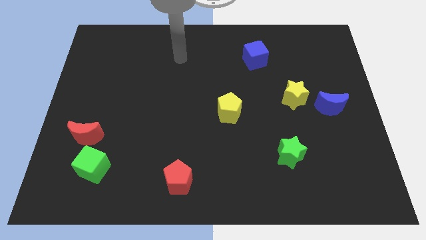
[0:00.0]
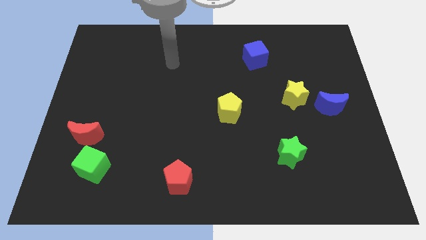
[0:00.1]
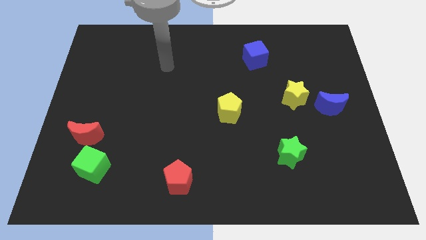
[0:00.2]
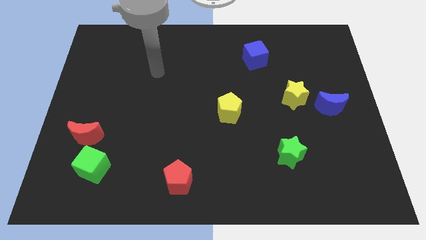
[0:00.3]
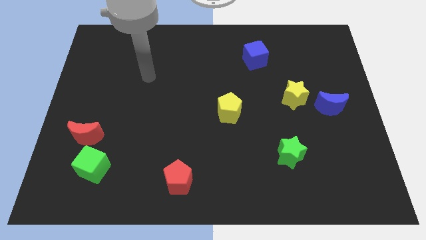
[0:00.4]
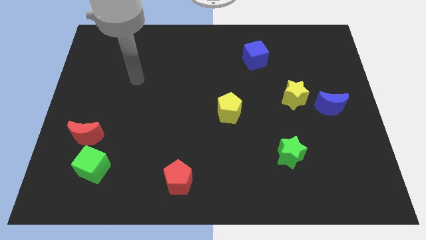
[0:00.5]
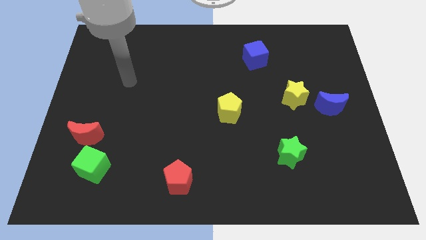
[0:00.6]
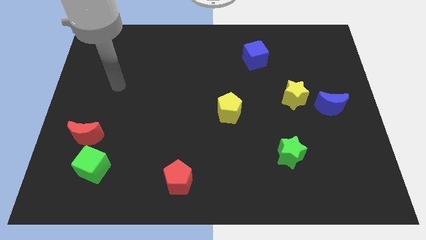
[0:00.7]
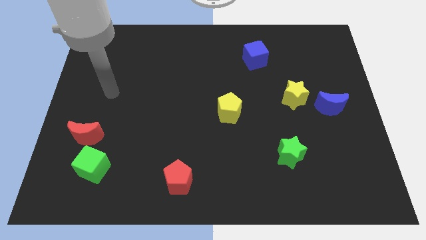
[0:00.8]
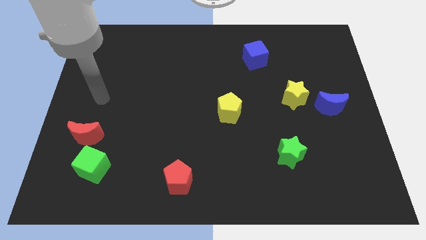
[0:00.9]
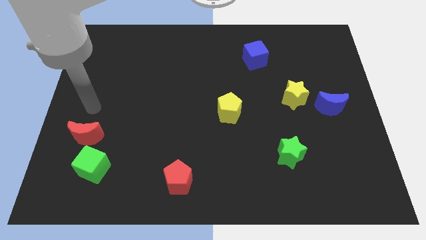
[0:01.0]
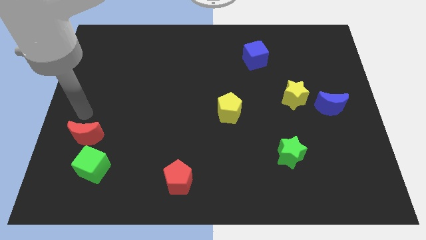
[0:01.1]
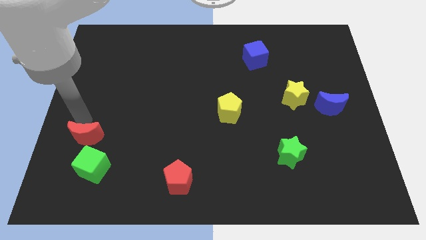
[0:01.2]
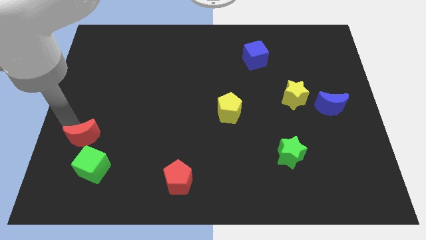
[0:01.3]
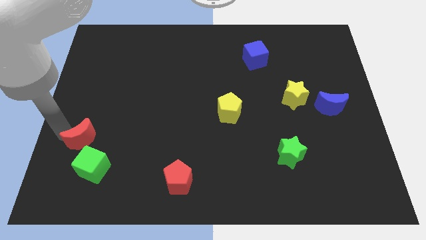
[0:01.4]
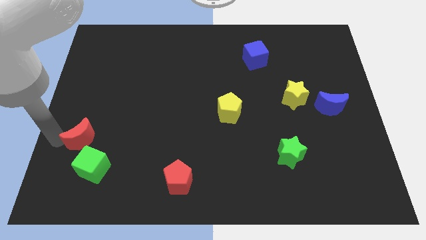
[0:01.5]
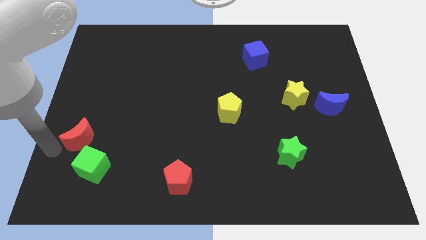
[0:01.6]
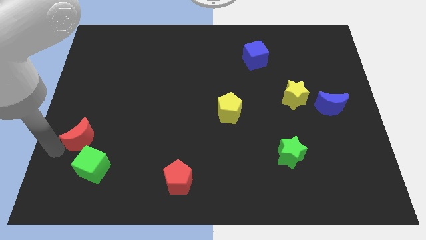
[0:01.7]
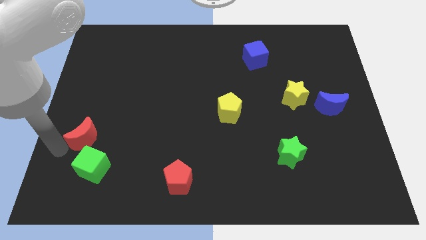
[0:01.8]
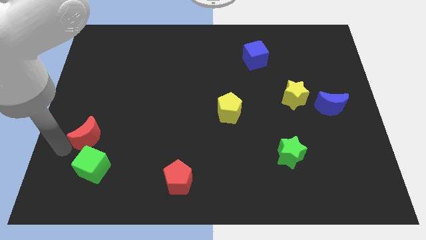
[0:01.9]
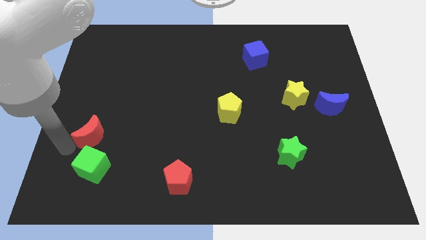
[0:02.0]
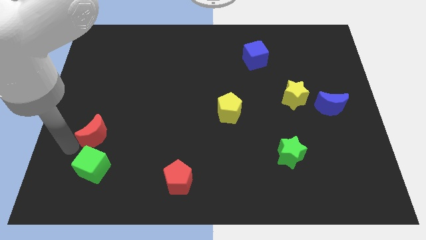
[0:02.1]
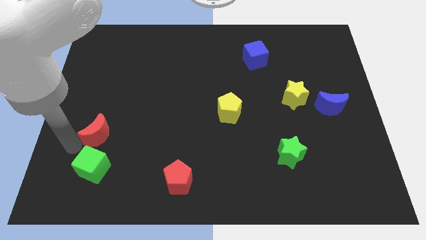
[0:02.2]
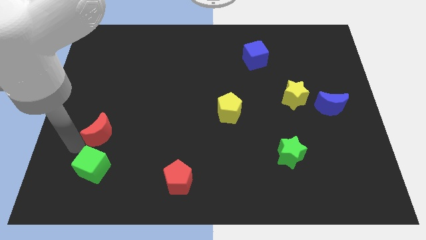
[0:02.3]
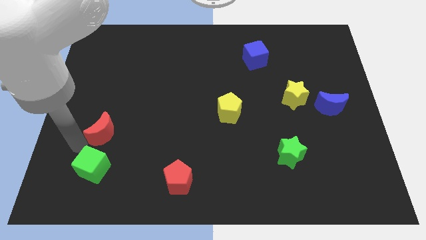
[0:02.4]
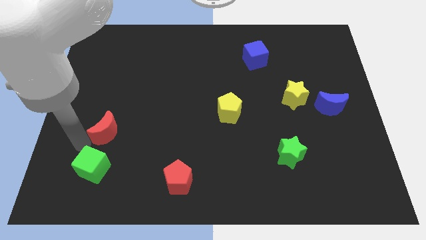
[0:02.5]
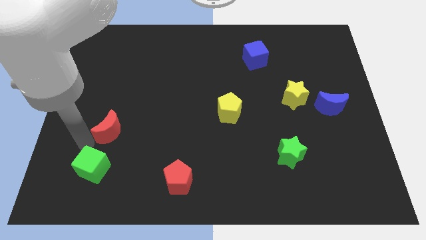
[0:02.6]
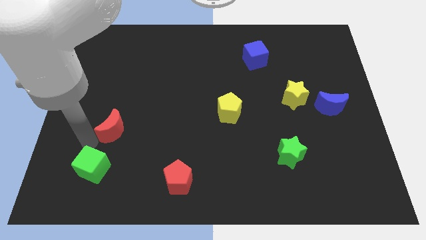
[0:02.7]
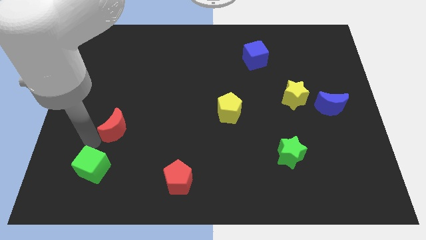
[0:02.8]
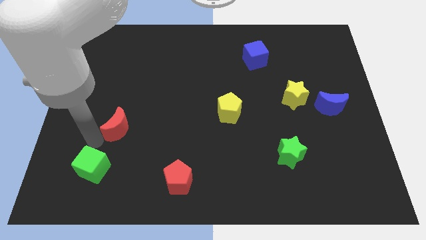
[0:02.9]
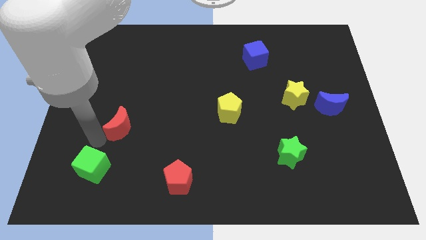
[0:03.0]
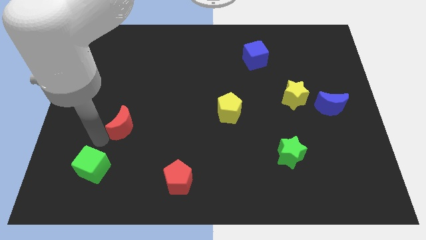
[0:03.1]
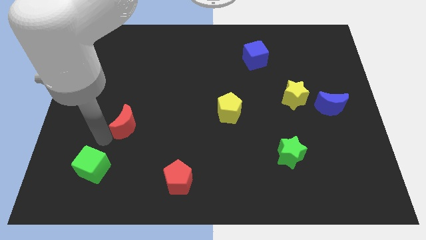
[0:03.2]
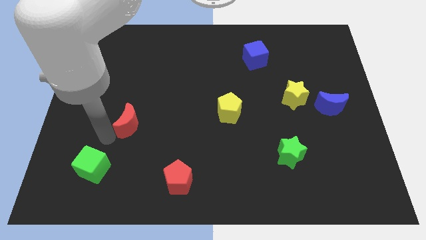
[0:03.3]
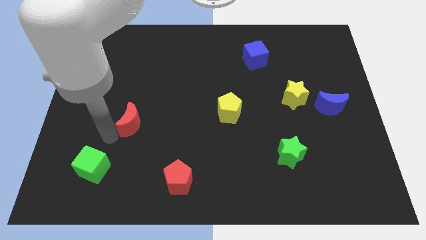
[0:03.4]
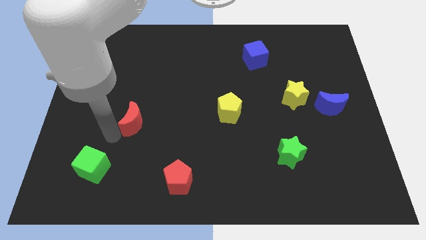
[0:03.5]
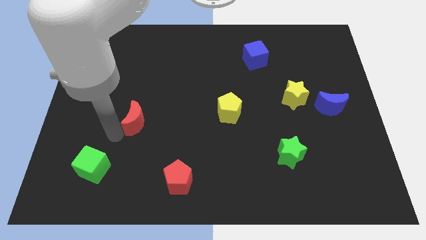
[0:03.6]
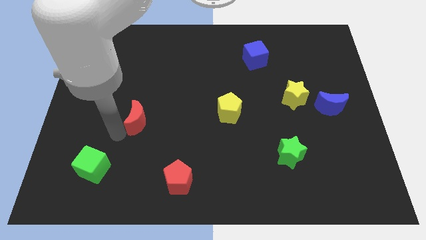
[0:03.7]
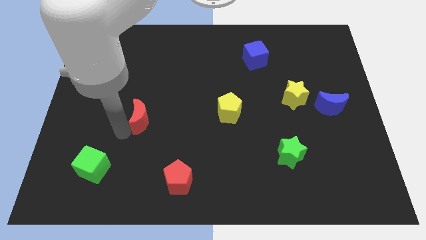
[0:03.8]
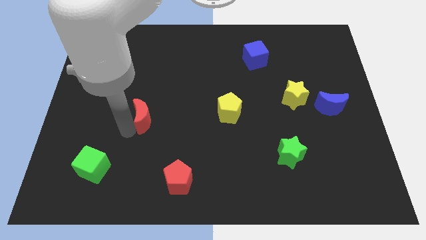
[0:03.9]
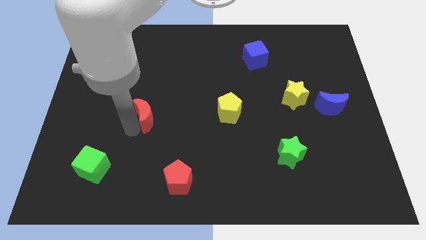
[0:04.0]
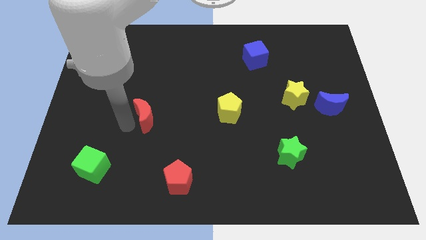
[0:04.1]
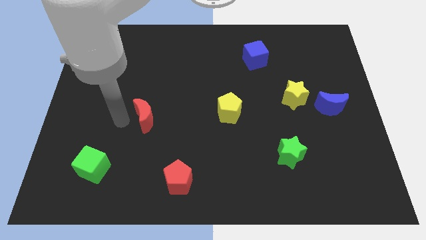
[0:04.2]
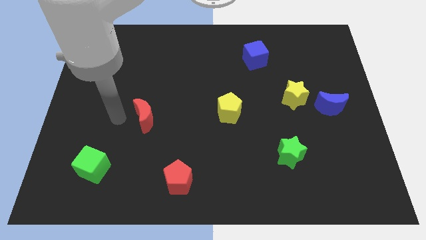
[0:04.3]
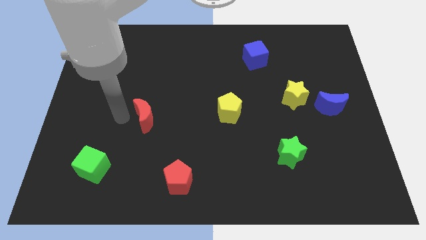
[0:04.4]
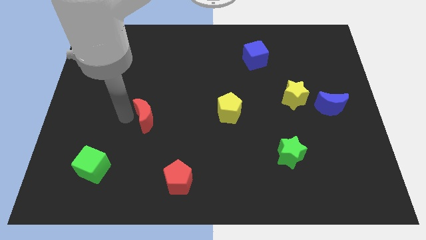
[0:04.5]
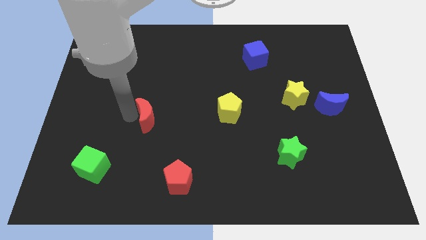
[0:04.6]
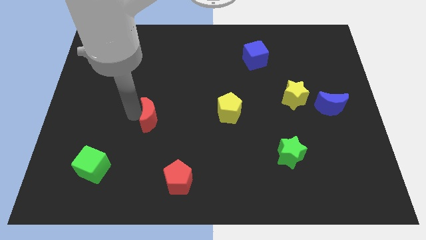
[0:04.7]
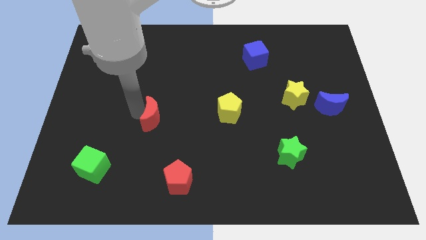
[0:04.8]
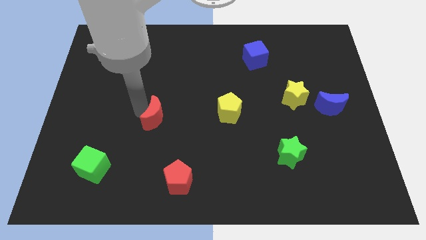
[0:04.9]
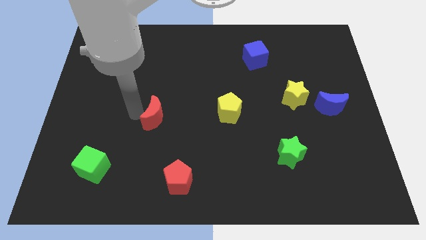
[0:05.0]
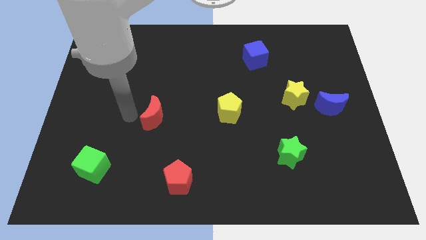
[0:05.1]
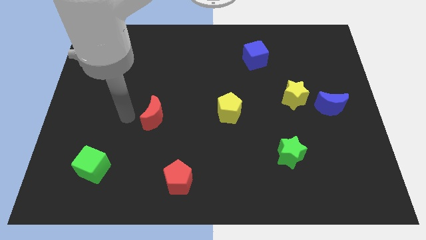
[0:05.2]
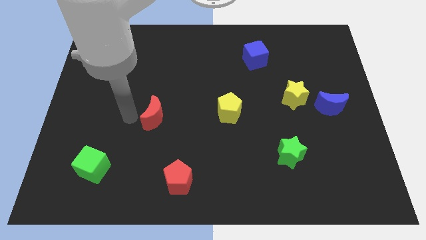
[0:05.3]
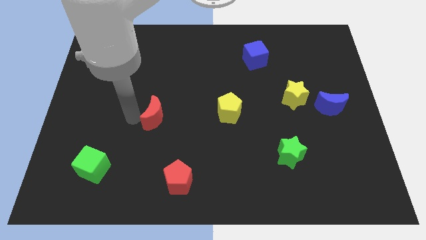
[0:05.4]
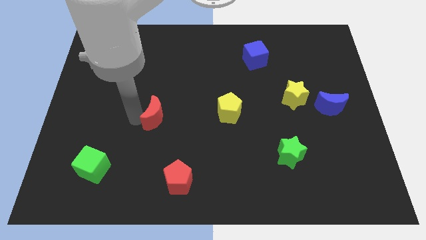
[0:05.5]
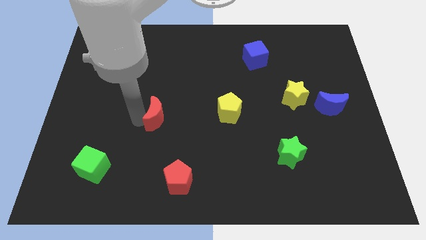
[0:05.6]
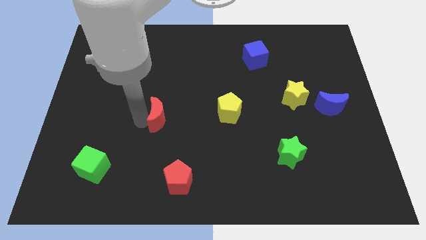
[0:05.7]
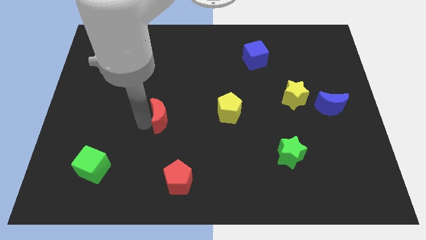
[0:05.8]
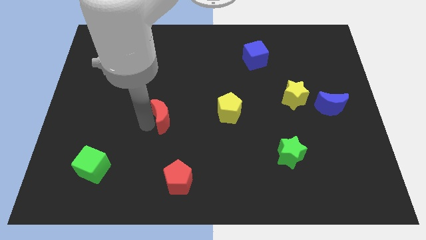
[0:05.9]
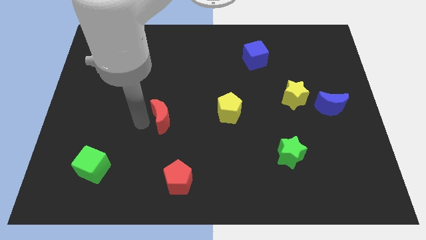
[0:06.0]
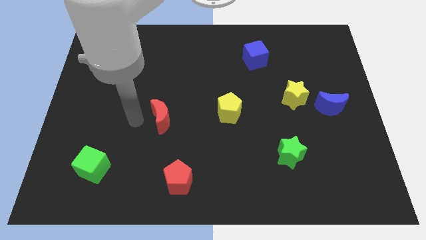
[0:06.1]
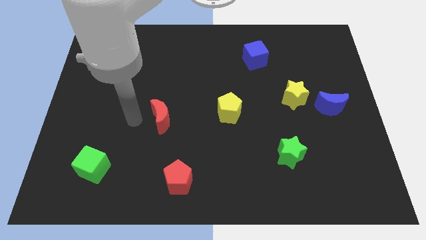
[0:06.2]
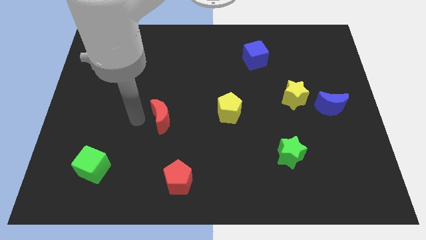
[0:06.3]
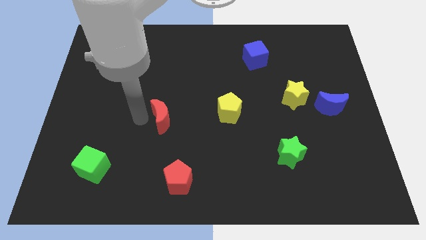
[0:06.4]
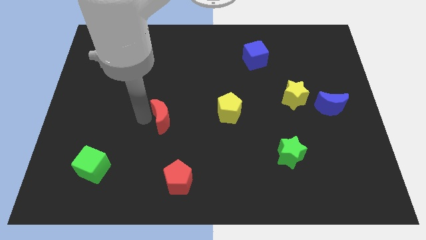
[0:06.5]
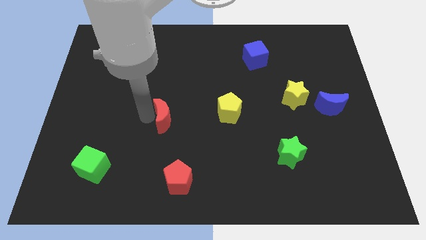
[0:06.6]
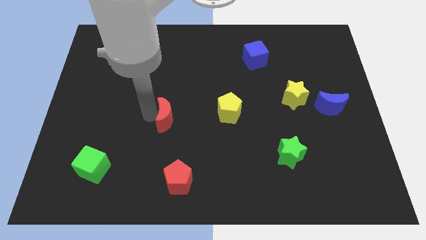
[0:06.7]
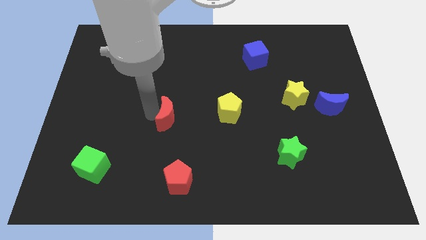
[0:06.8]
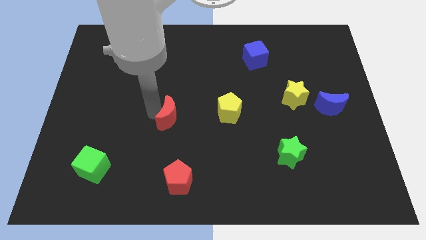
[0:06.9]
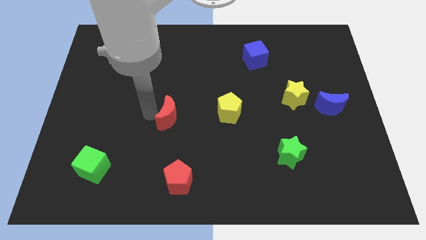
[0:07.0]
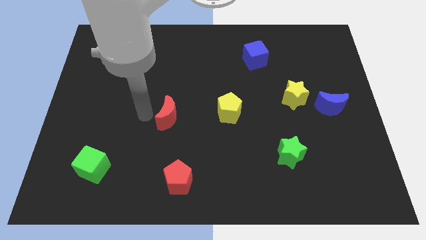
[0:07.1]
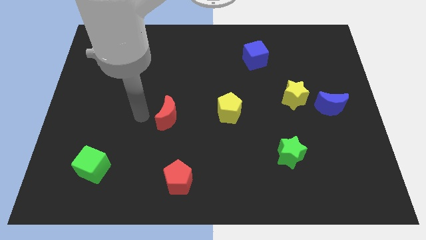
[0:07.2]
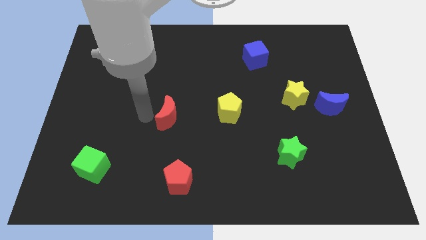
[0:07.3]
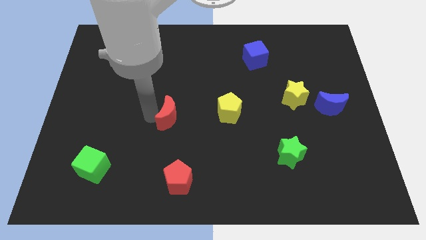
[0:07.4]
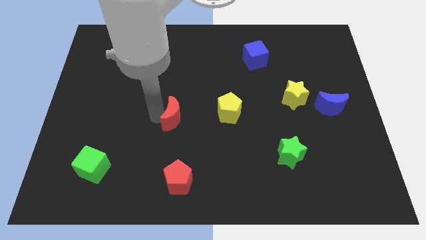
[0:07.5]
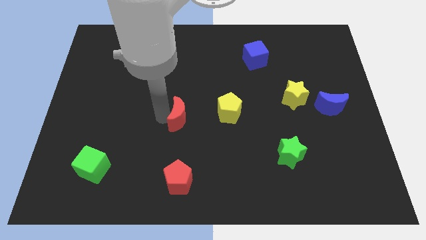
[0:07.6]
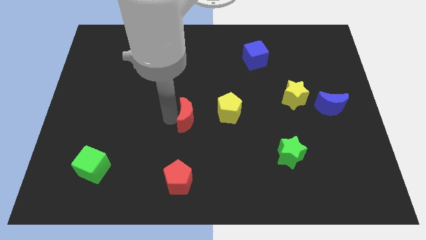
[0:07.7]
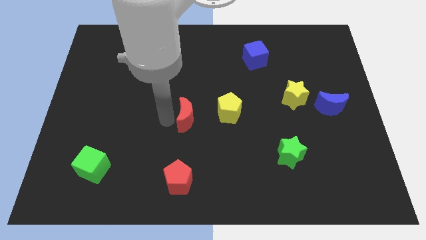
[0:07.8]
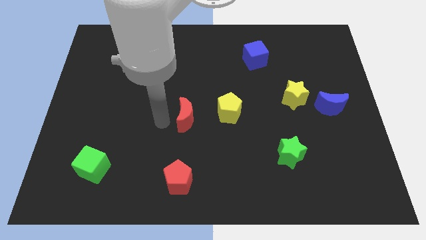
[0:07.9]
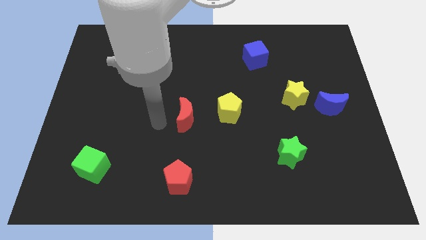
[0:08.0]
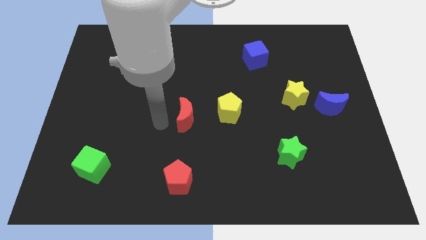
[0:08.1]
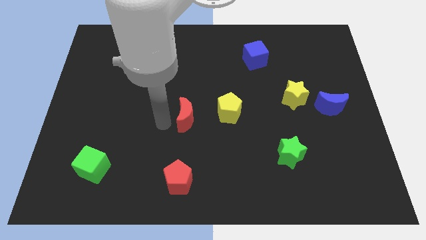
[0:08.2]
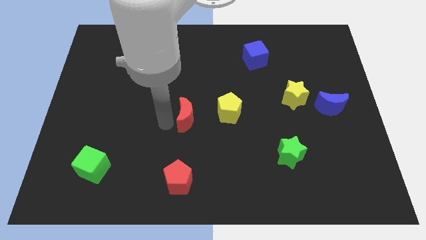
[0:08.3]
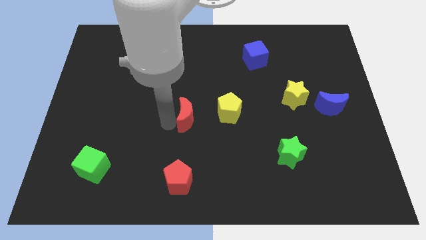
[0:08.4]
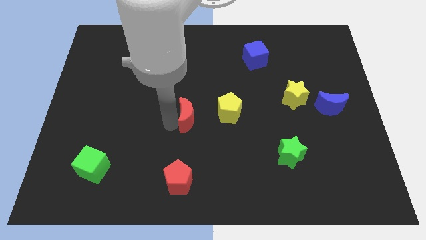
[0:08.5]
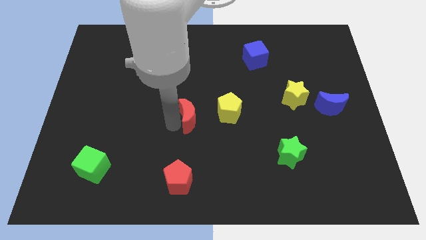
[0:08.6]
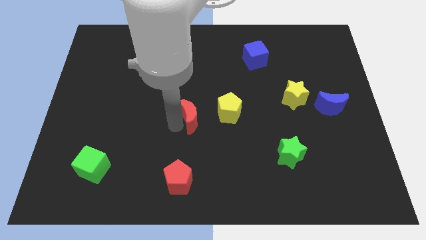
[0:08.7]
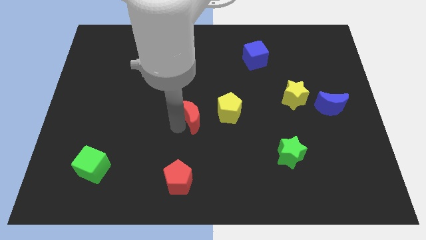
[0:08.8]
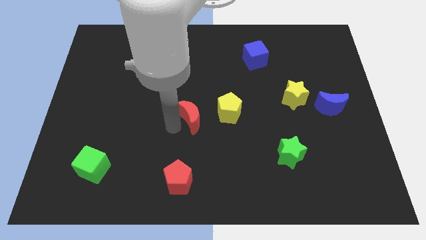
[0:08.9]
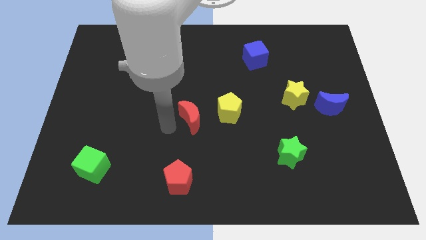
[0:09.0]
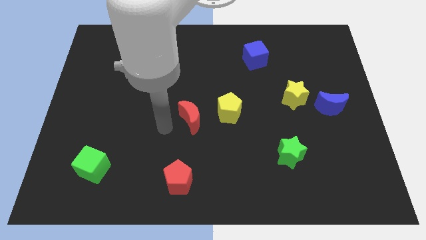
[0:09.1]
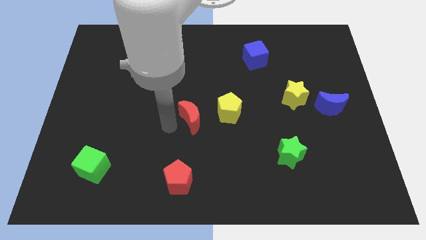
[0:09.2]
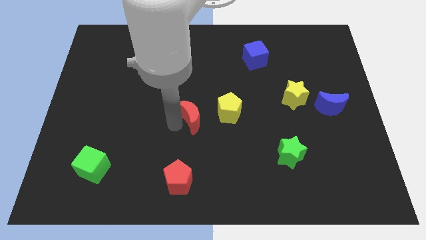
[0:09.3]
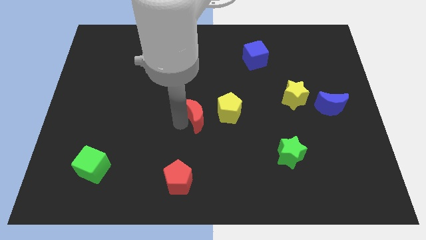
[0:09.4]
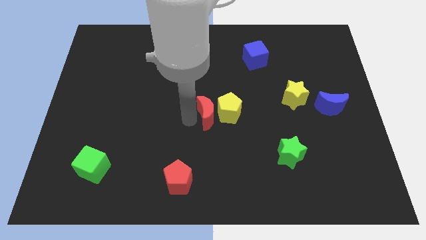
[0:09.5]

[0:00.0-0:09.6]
move the red moon to the yellow pentagon
